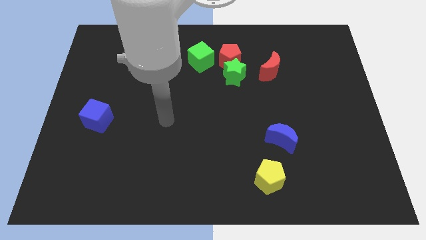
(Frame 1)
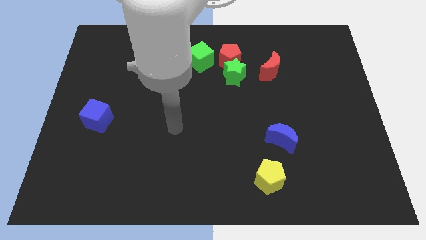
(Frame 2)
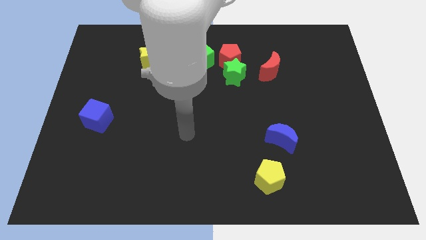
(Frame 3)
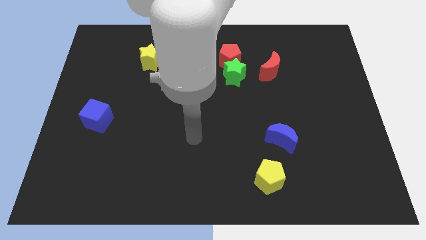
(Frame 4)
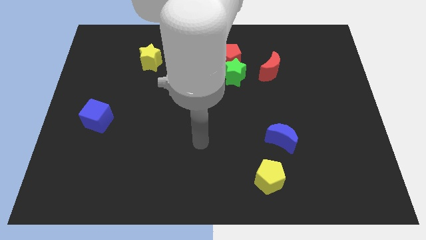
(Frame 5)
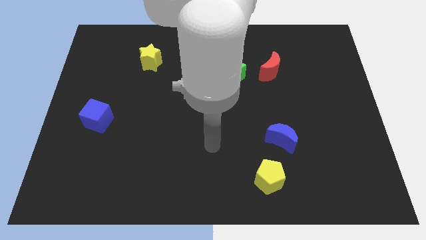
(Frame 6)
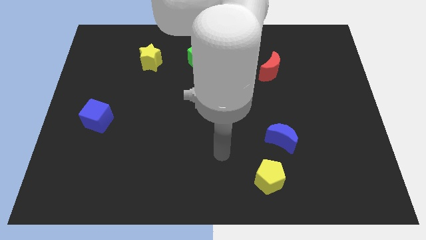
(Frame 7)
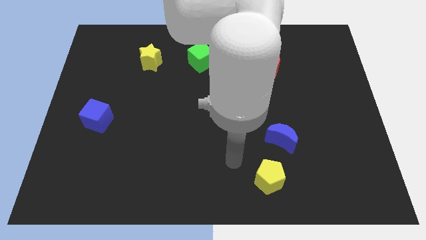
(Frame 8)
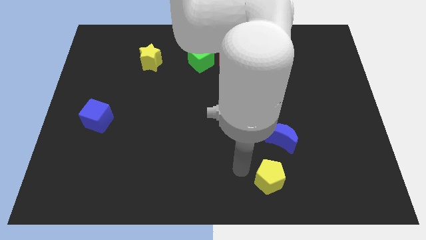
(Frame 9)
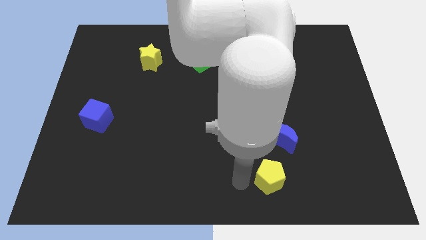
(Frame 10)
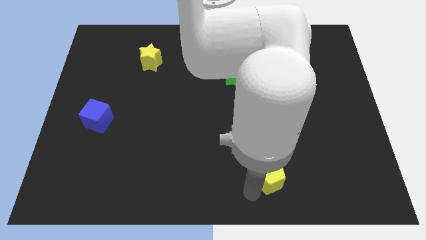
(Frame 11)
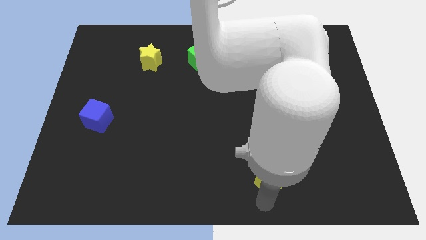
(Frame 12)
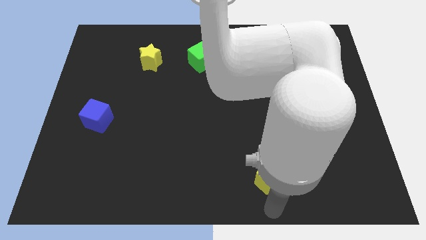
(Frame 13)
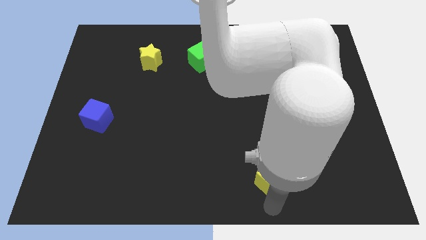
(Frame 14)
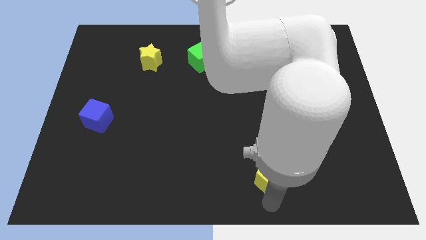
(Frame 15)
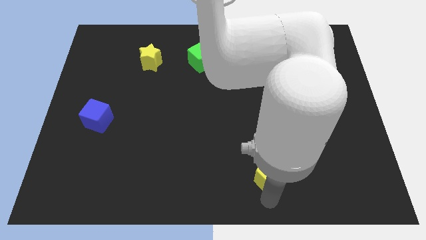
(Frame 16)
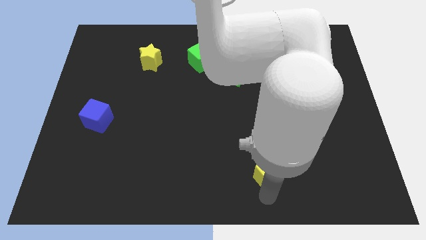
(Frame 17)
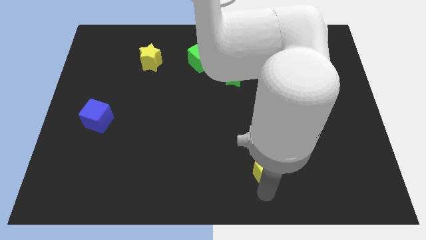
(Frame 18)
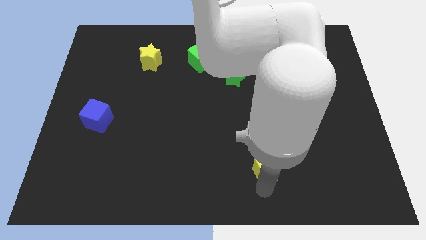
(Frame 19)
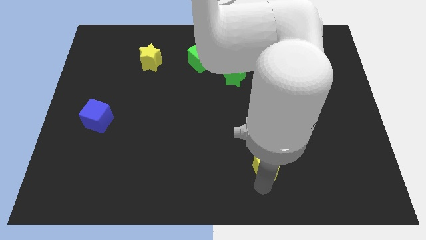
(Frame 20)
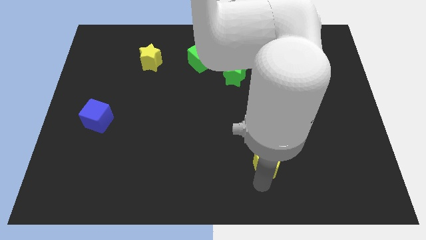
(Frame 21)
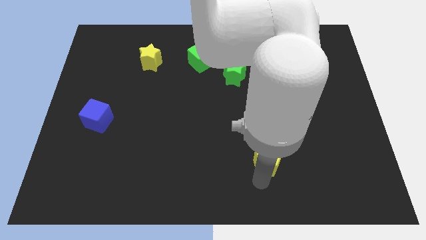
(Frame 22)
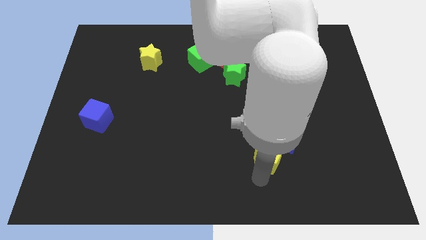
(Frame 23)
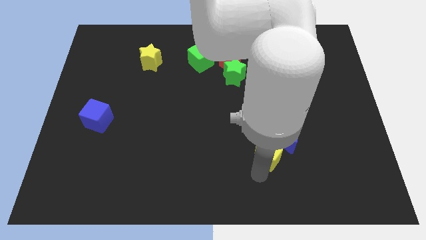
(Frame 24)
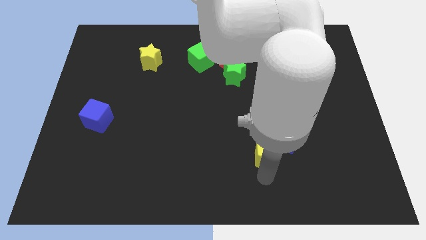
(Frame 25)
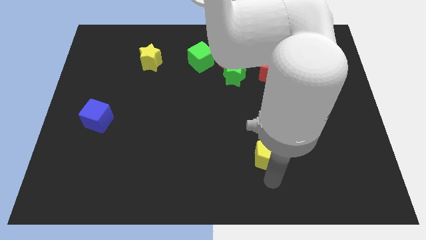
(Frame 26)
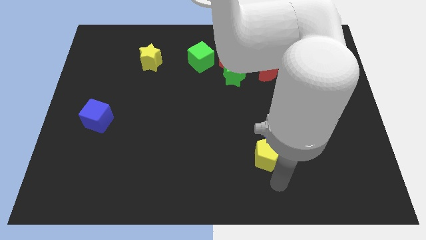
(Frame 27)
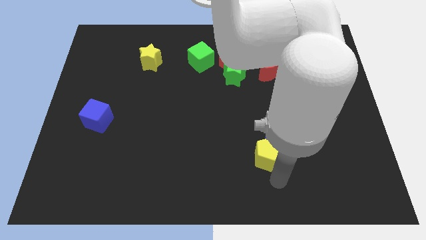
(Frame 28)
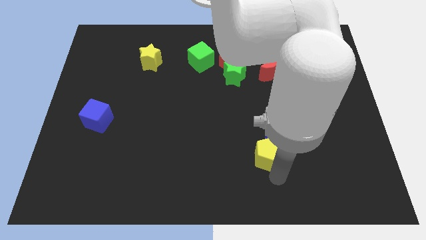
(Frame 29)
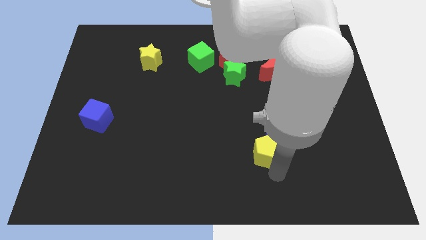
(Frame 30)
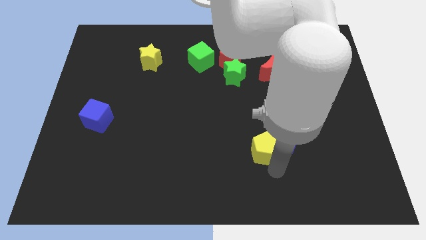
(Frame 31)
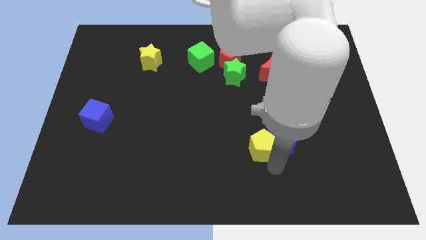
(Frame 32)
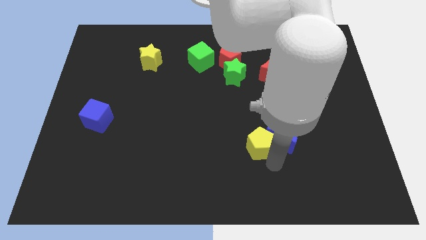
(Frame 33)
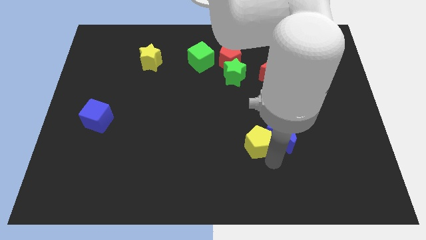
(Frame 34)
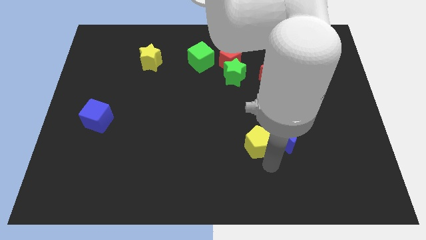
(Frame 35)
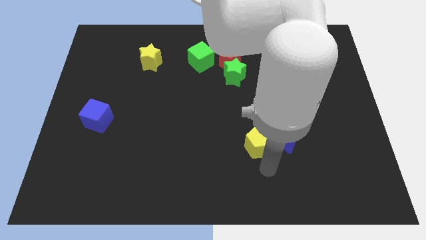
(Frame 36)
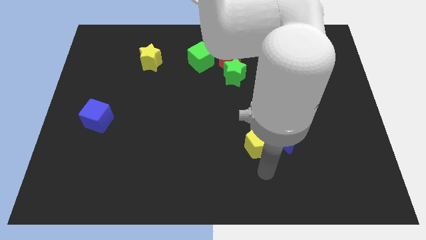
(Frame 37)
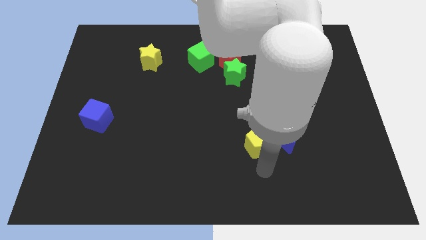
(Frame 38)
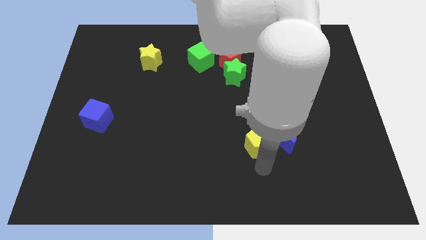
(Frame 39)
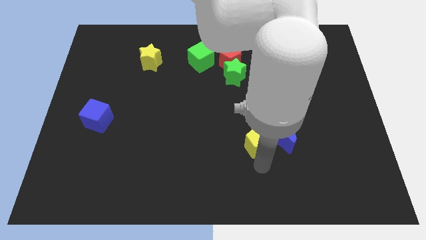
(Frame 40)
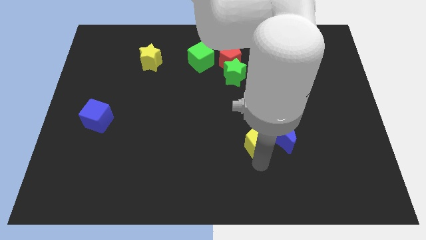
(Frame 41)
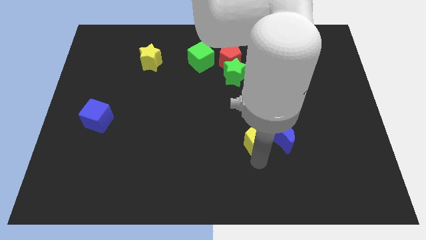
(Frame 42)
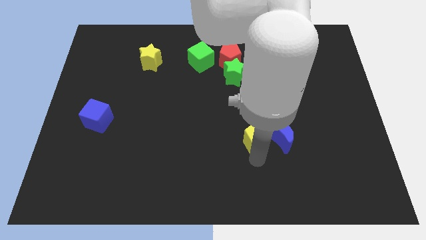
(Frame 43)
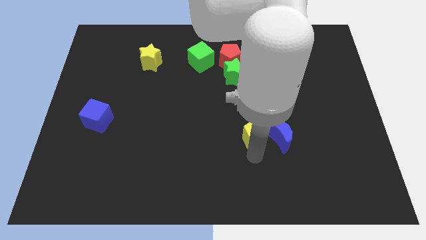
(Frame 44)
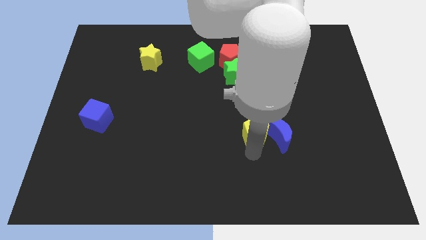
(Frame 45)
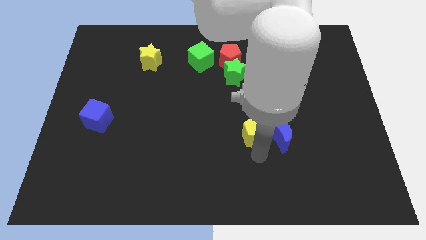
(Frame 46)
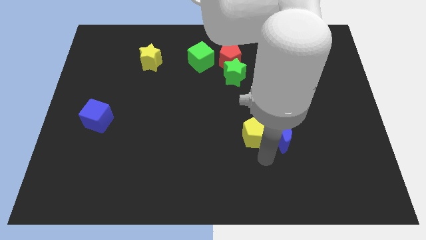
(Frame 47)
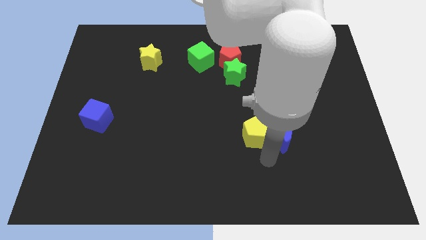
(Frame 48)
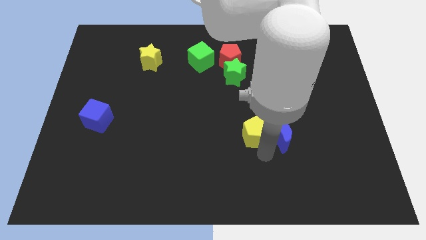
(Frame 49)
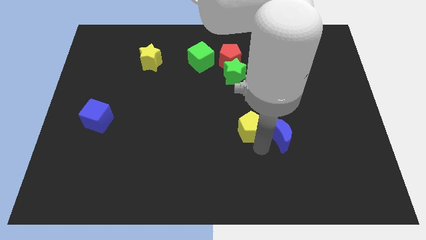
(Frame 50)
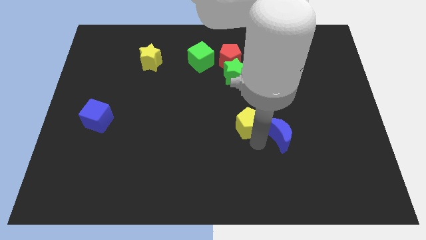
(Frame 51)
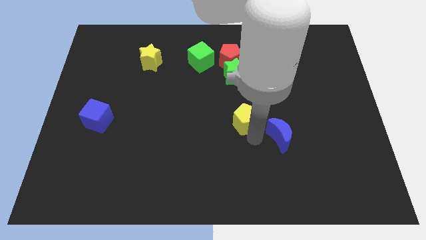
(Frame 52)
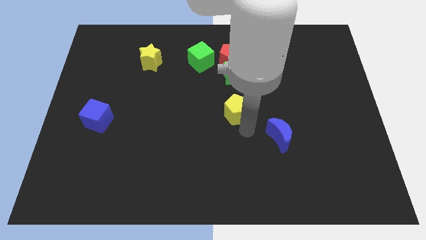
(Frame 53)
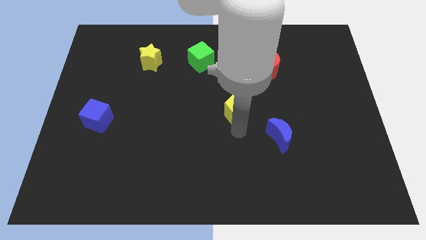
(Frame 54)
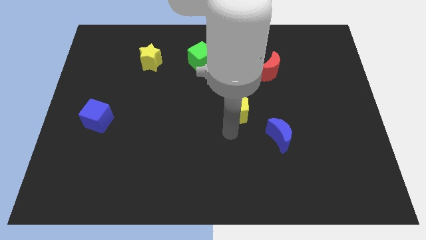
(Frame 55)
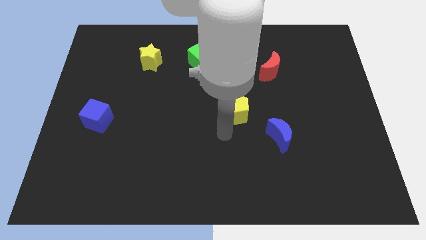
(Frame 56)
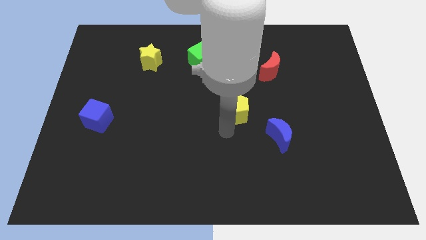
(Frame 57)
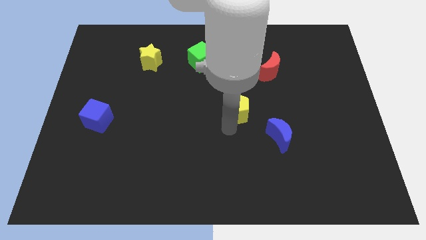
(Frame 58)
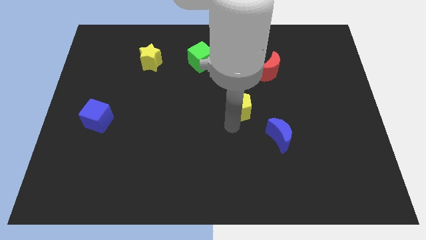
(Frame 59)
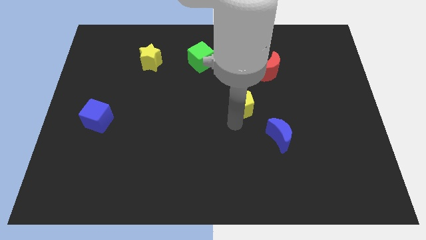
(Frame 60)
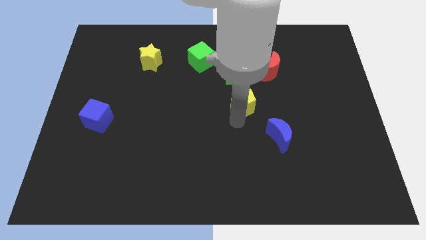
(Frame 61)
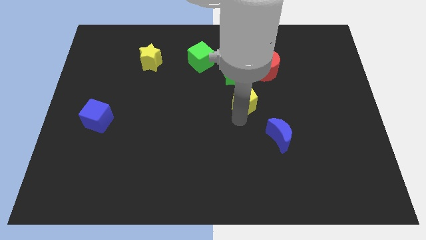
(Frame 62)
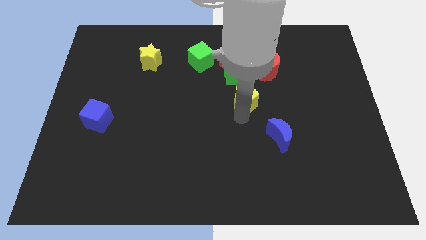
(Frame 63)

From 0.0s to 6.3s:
push the yellow pentagon to the bottom left side of the red moon

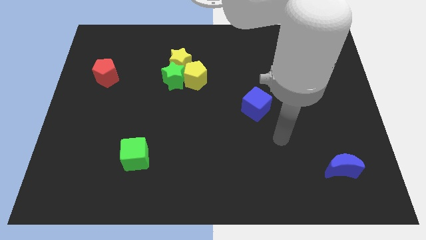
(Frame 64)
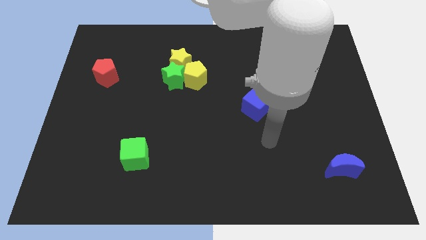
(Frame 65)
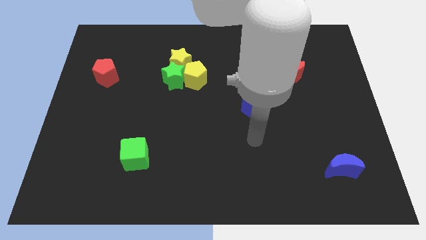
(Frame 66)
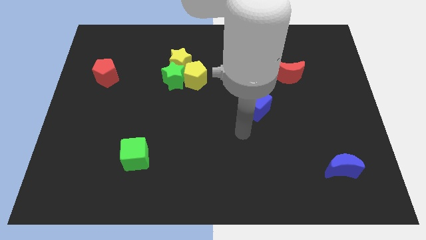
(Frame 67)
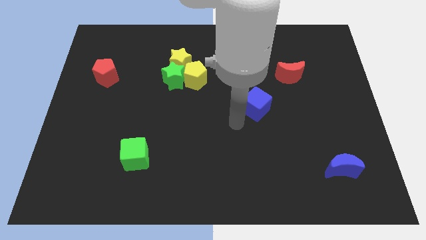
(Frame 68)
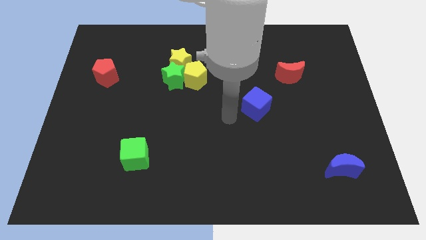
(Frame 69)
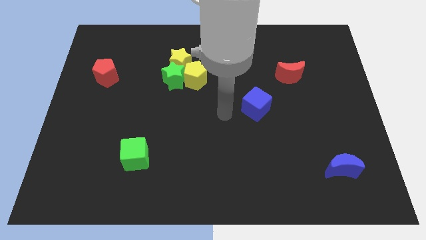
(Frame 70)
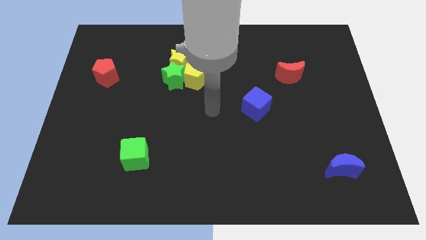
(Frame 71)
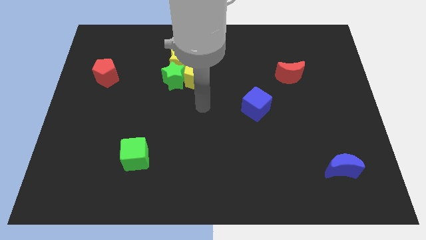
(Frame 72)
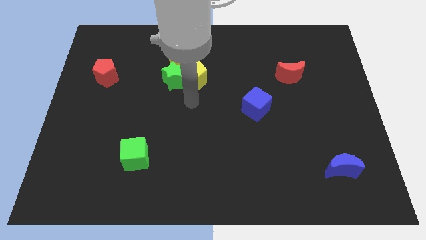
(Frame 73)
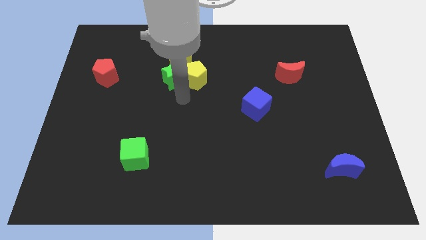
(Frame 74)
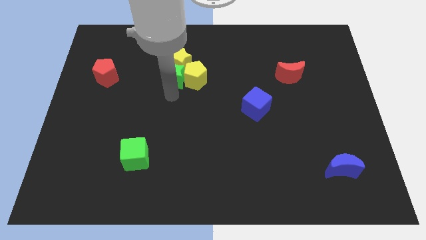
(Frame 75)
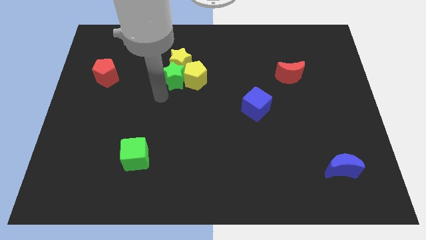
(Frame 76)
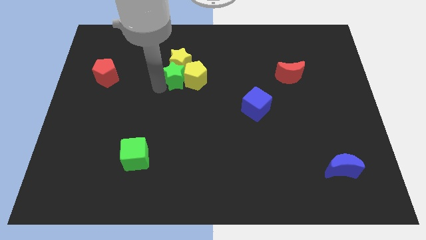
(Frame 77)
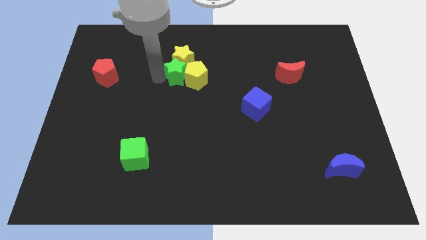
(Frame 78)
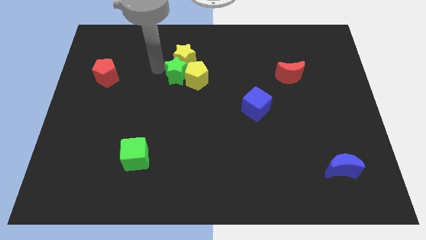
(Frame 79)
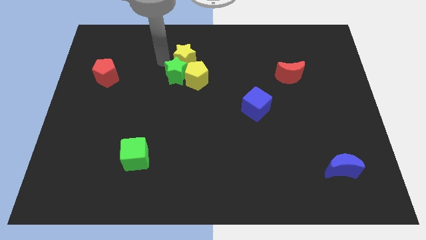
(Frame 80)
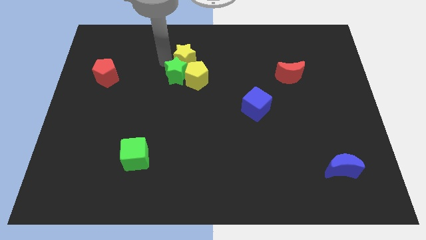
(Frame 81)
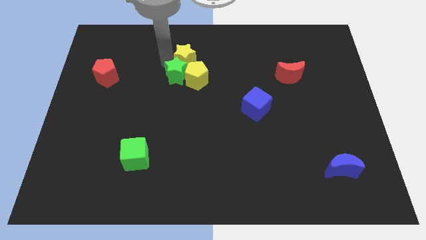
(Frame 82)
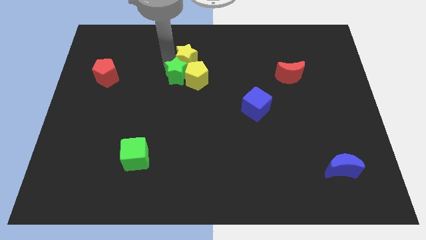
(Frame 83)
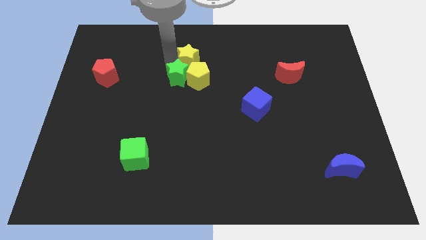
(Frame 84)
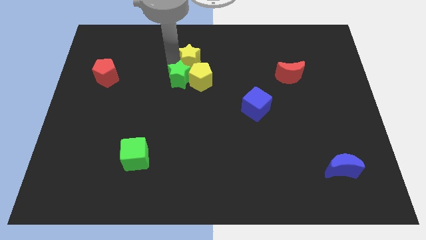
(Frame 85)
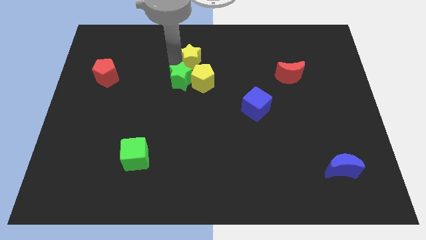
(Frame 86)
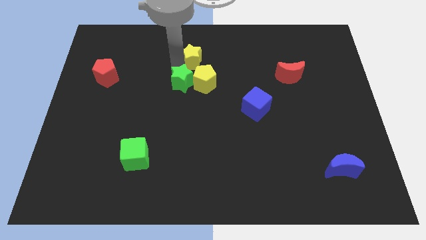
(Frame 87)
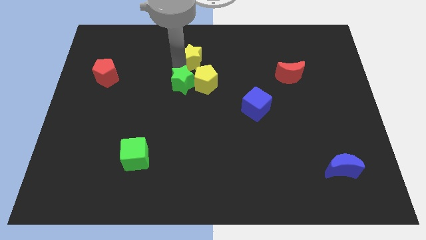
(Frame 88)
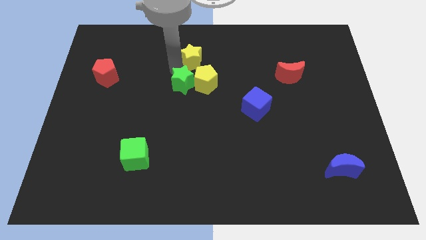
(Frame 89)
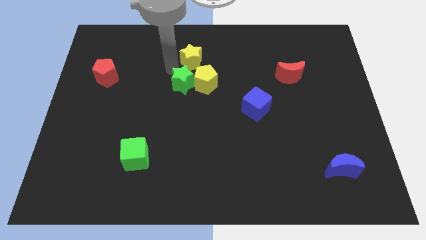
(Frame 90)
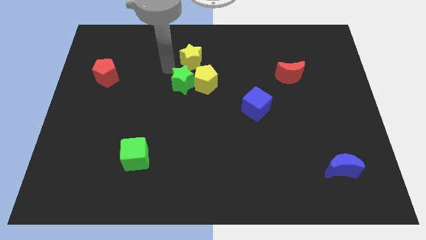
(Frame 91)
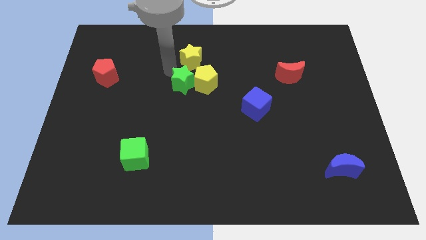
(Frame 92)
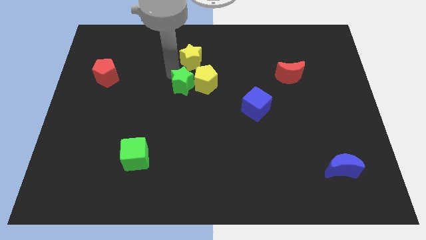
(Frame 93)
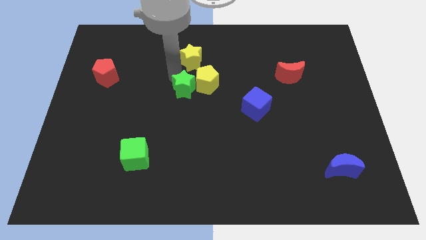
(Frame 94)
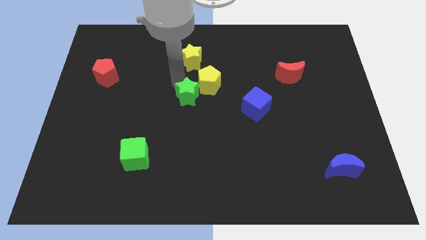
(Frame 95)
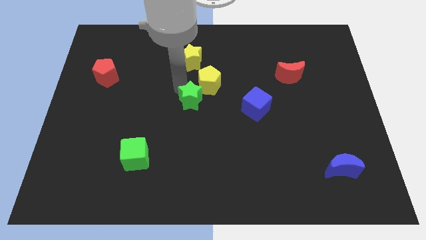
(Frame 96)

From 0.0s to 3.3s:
move the green star left of the blue cube
